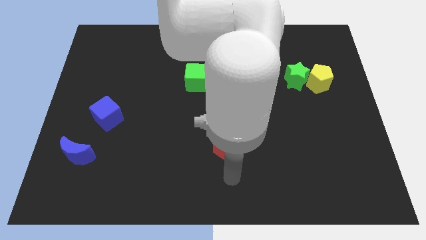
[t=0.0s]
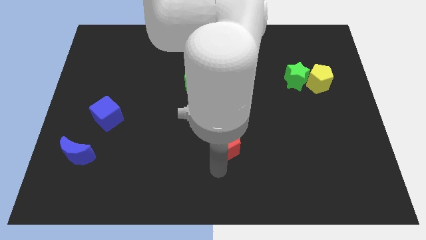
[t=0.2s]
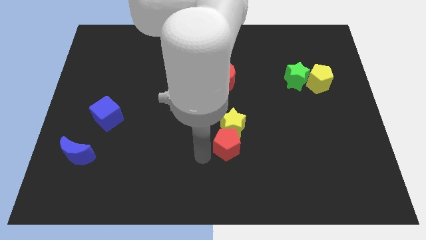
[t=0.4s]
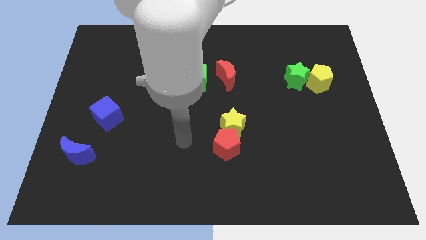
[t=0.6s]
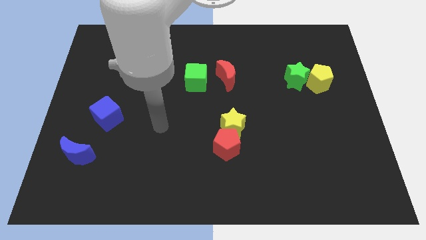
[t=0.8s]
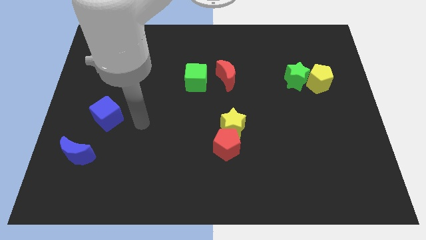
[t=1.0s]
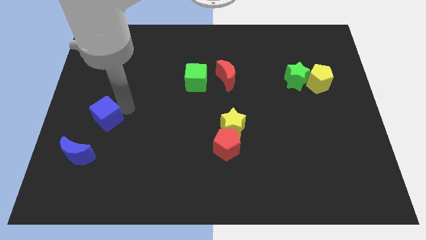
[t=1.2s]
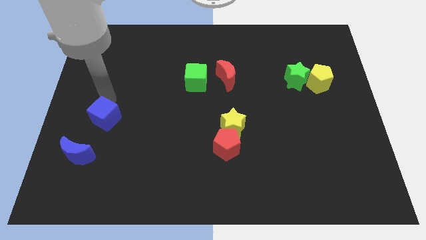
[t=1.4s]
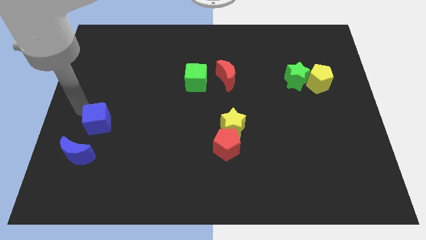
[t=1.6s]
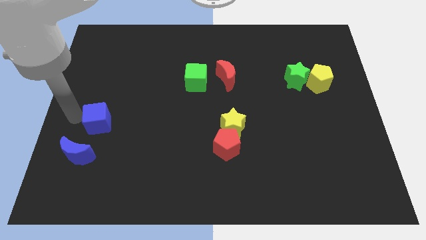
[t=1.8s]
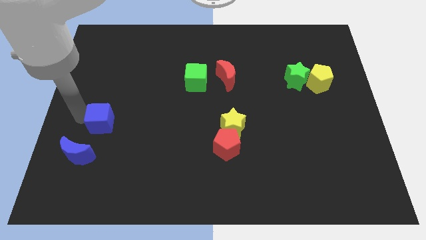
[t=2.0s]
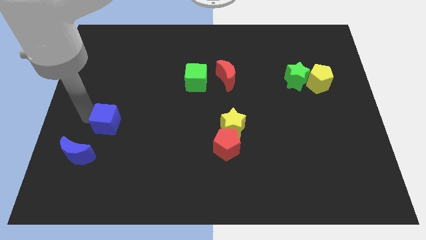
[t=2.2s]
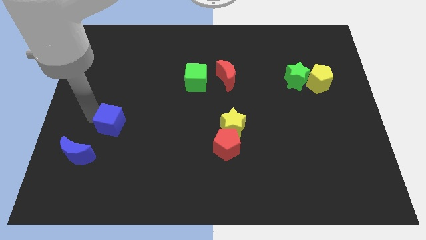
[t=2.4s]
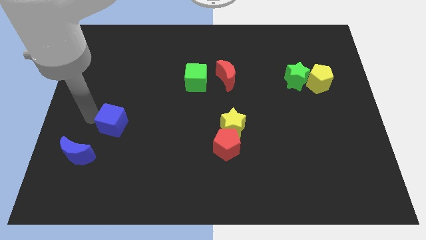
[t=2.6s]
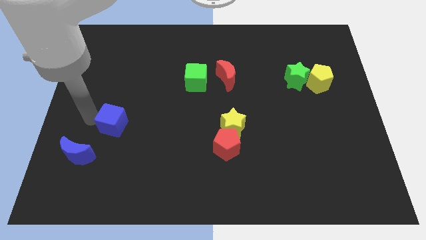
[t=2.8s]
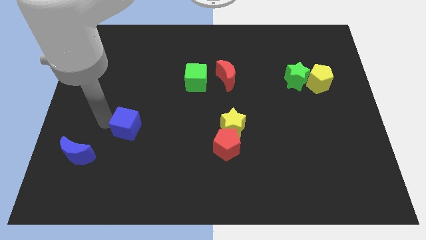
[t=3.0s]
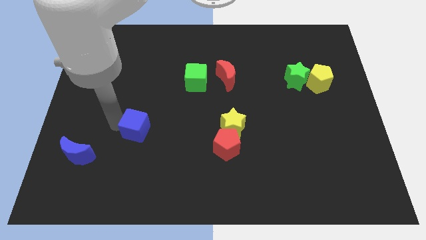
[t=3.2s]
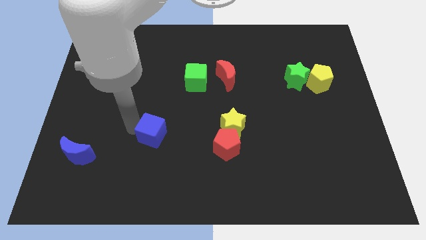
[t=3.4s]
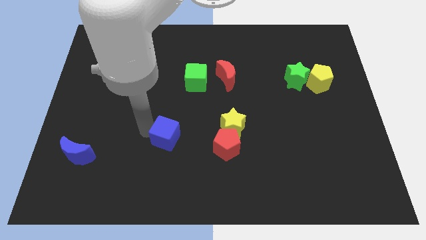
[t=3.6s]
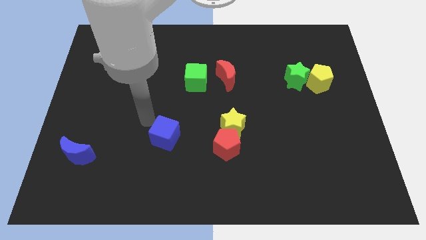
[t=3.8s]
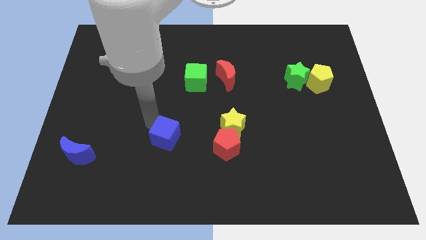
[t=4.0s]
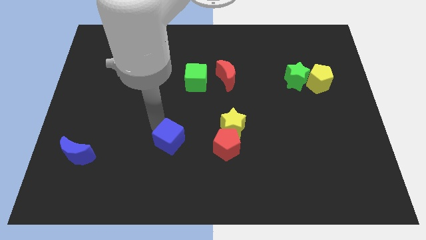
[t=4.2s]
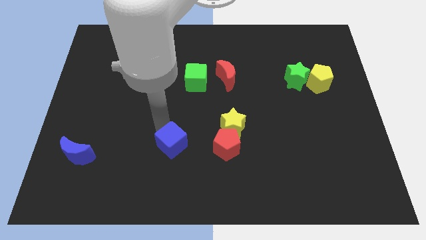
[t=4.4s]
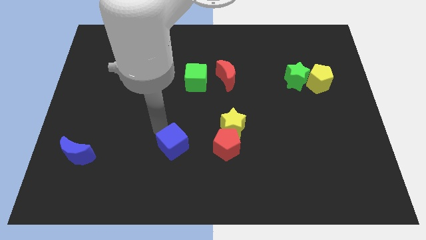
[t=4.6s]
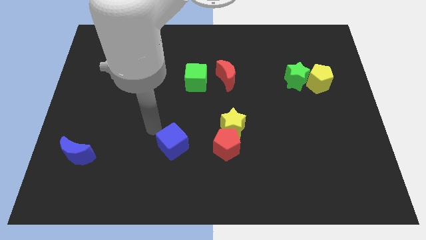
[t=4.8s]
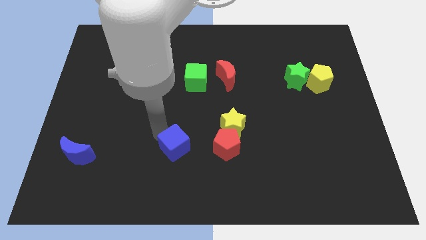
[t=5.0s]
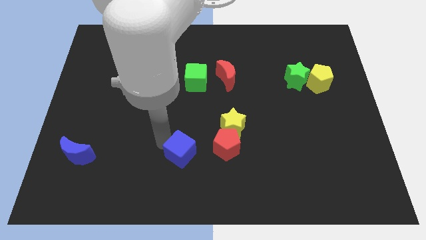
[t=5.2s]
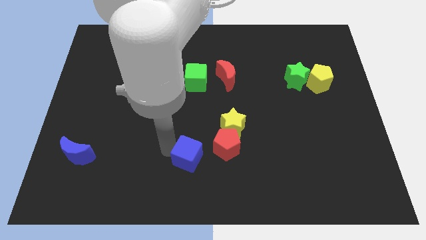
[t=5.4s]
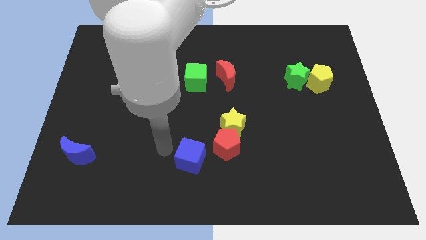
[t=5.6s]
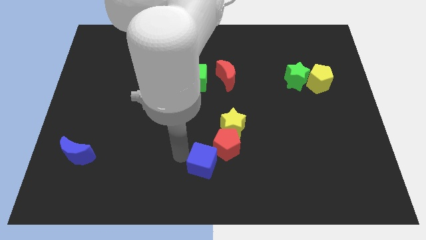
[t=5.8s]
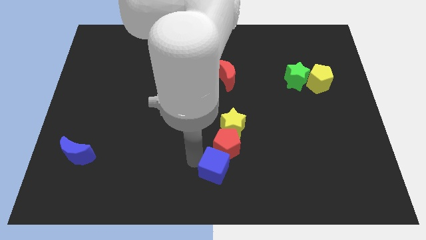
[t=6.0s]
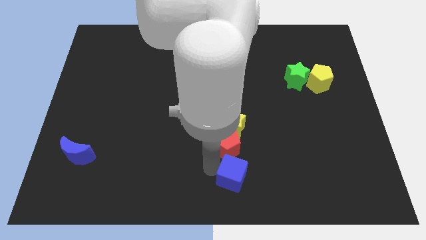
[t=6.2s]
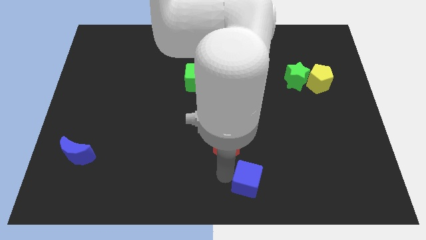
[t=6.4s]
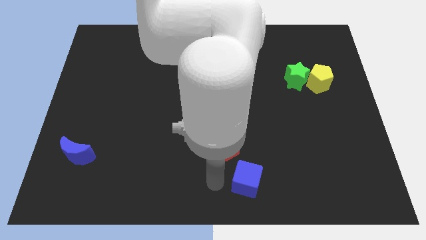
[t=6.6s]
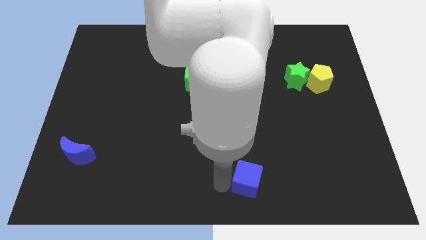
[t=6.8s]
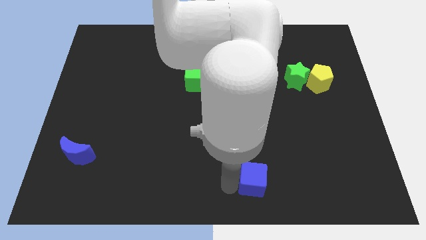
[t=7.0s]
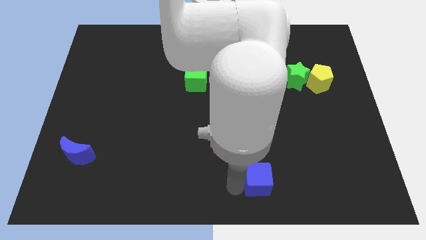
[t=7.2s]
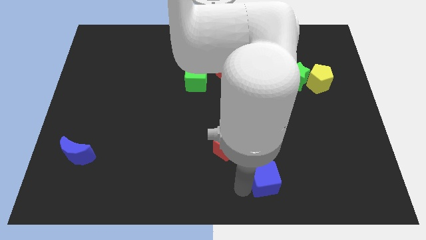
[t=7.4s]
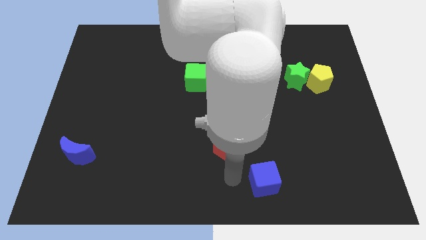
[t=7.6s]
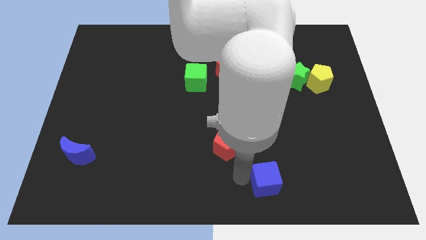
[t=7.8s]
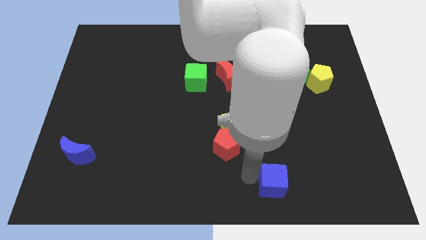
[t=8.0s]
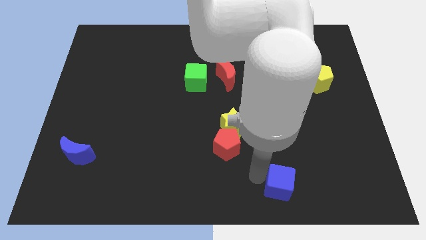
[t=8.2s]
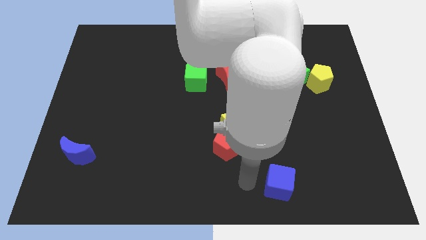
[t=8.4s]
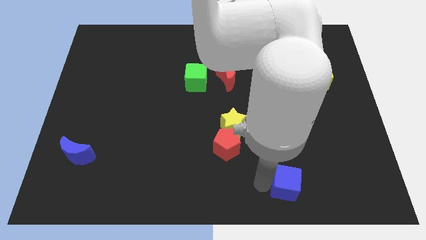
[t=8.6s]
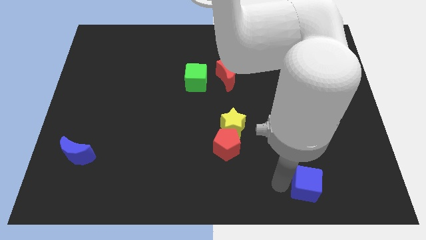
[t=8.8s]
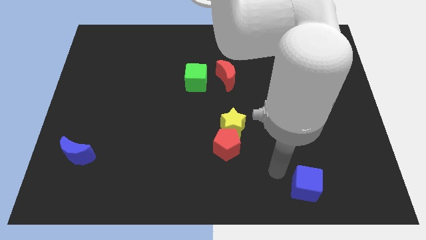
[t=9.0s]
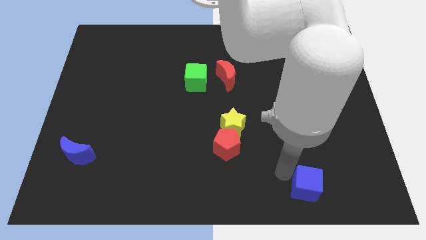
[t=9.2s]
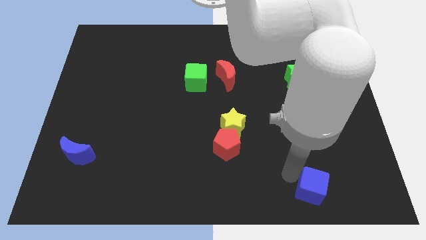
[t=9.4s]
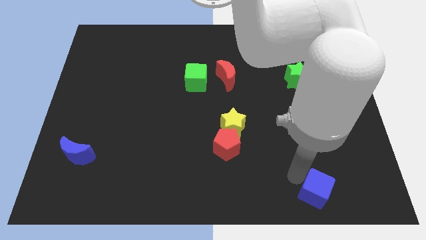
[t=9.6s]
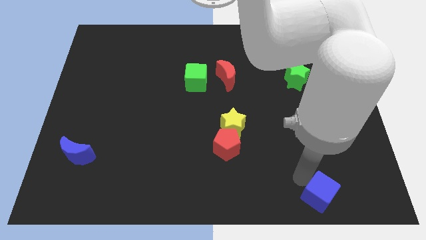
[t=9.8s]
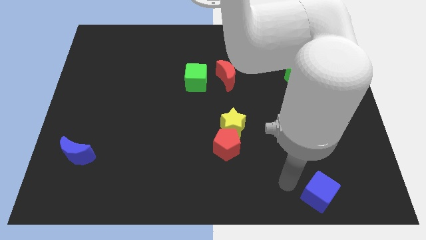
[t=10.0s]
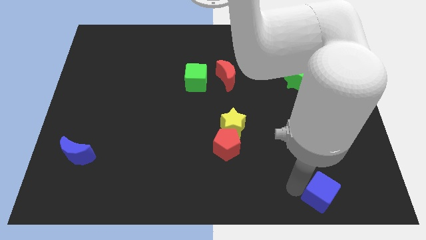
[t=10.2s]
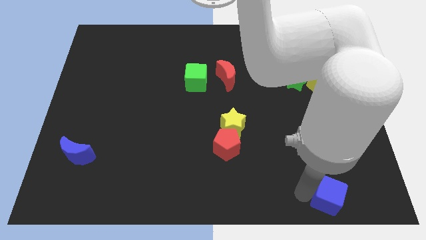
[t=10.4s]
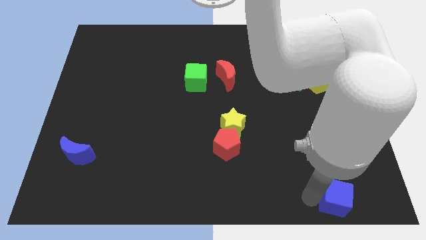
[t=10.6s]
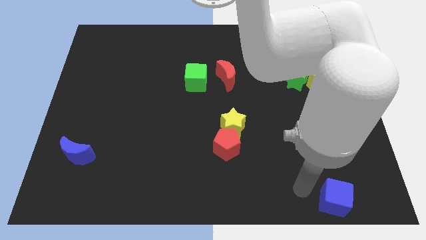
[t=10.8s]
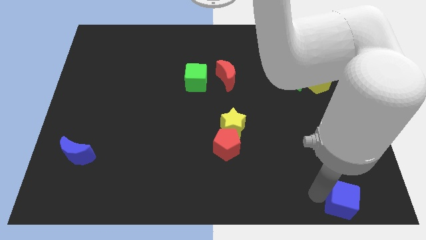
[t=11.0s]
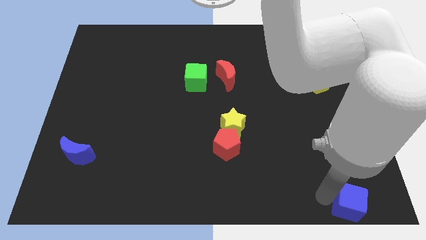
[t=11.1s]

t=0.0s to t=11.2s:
put the blue cube to the bottom right of the board
